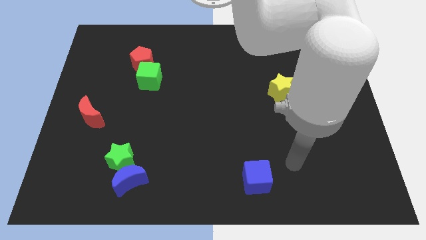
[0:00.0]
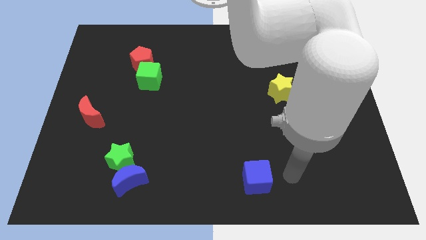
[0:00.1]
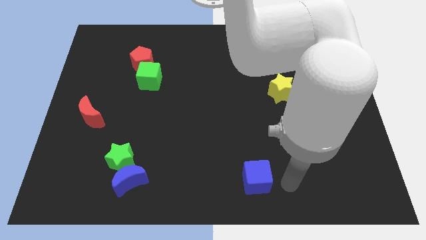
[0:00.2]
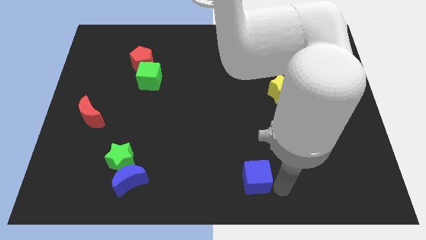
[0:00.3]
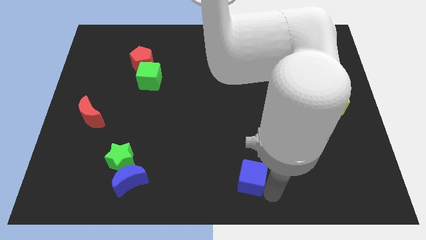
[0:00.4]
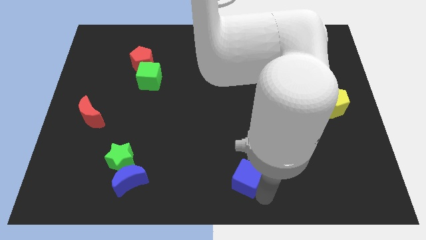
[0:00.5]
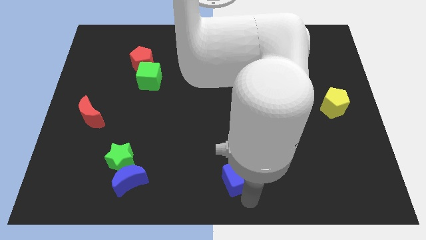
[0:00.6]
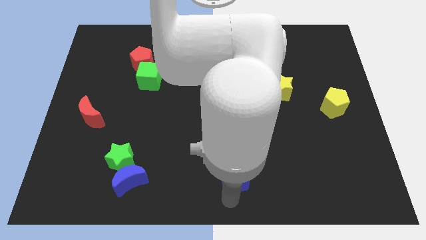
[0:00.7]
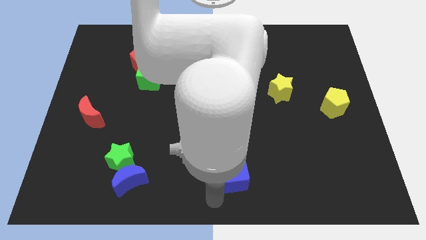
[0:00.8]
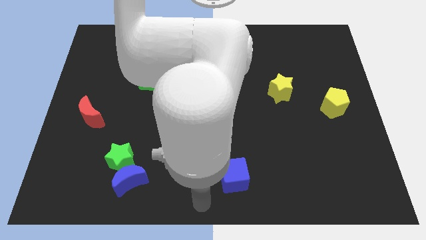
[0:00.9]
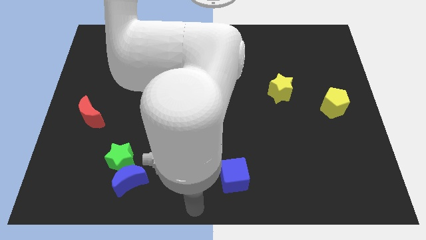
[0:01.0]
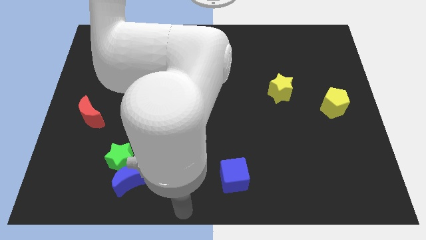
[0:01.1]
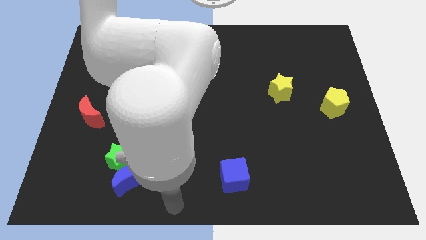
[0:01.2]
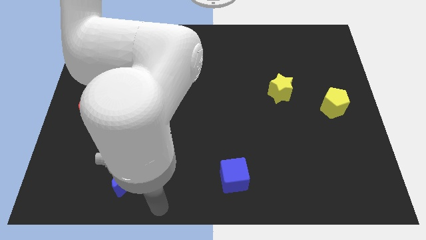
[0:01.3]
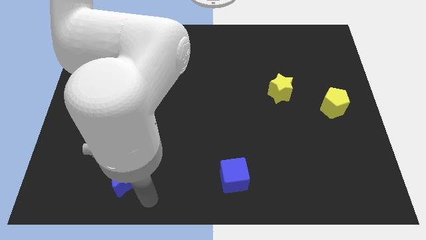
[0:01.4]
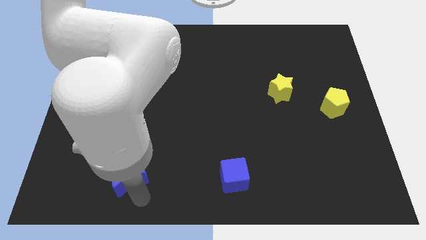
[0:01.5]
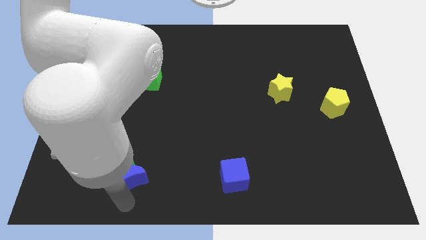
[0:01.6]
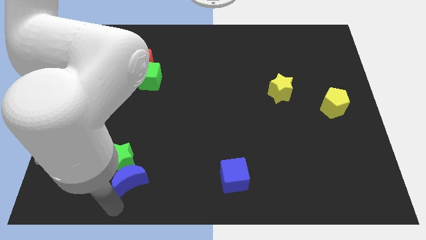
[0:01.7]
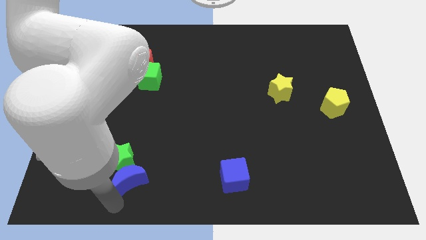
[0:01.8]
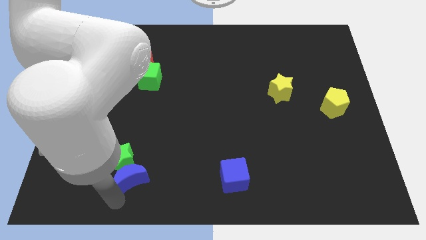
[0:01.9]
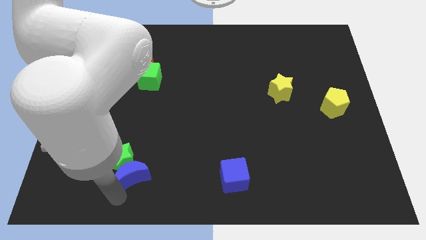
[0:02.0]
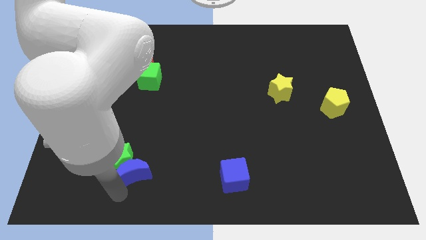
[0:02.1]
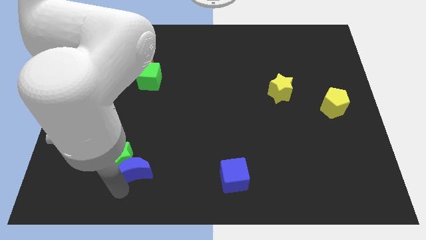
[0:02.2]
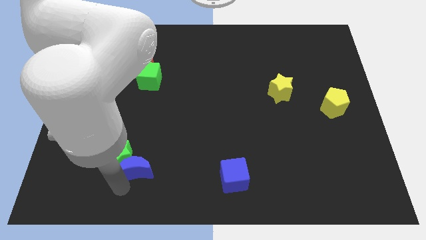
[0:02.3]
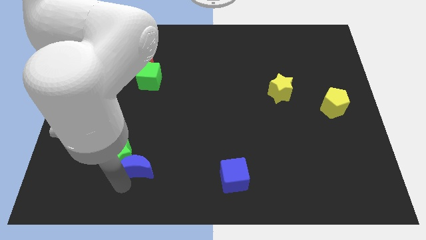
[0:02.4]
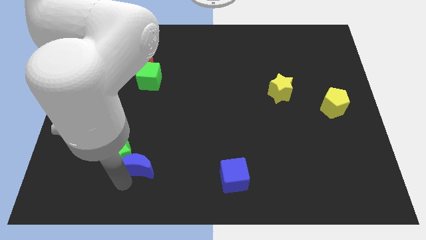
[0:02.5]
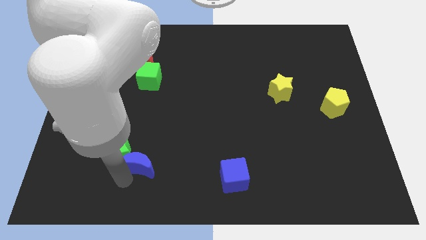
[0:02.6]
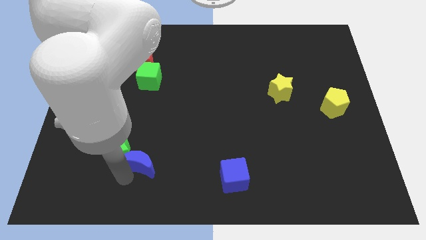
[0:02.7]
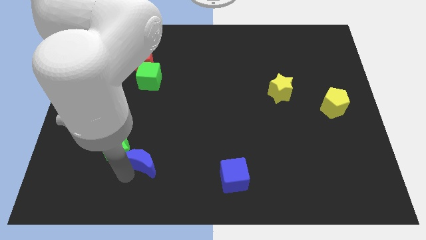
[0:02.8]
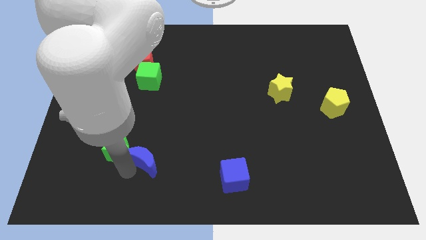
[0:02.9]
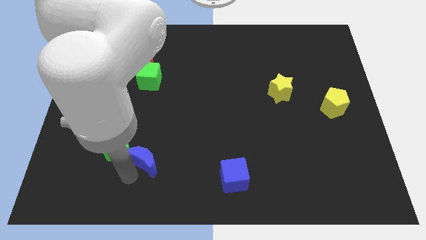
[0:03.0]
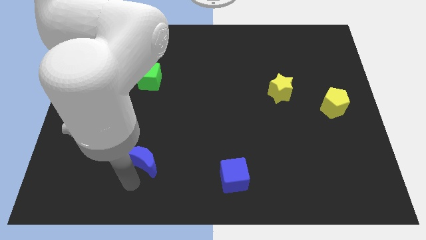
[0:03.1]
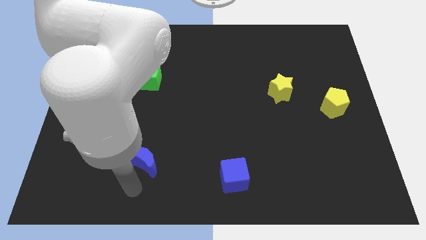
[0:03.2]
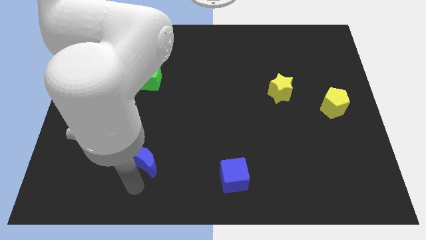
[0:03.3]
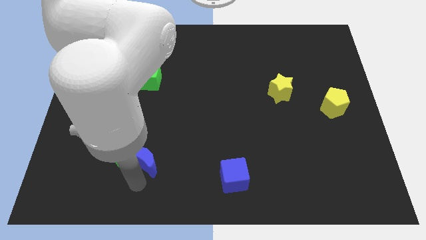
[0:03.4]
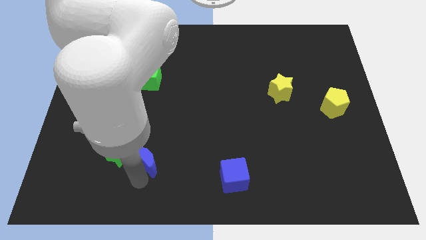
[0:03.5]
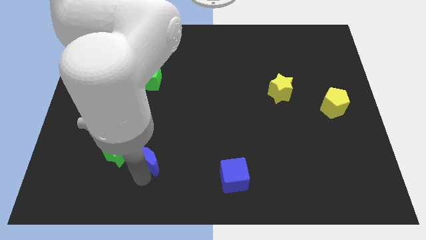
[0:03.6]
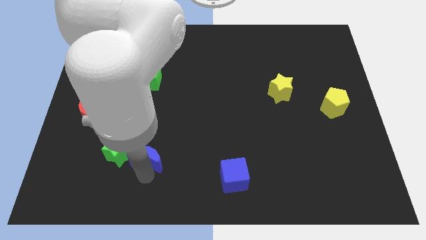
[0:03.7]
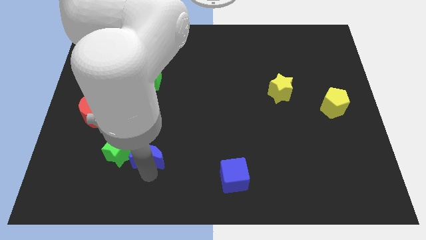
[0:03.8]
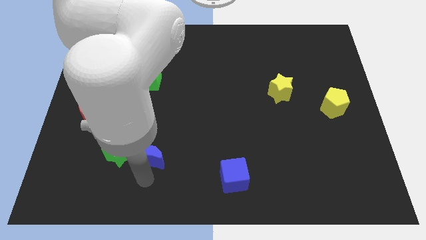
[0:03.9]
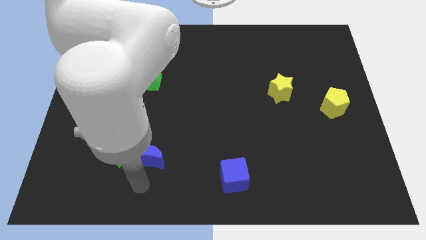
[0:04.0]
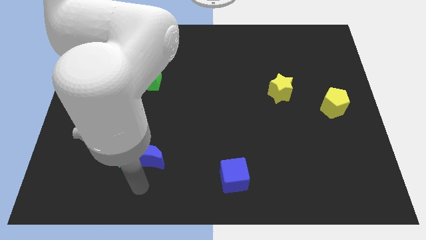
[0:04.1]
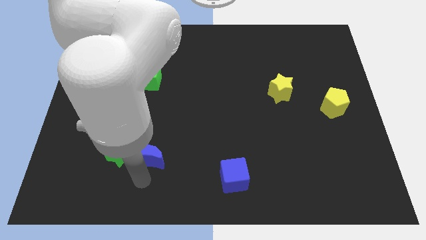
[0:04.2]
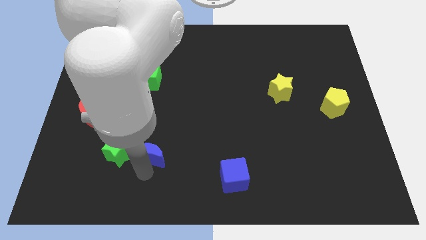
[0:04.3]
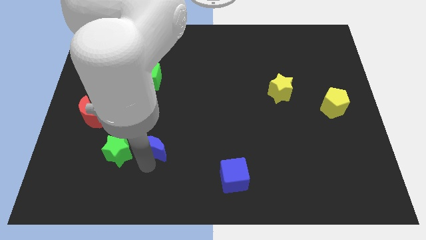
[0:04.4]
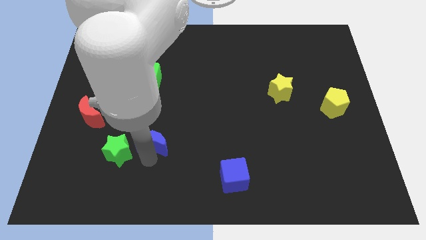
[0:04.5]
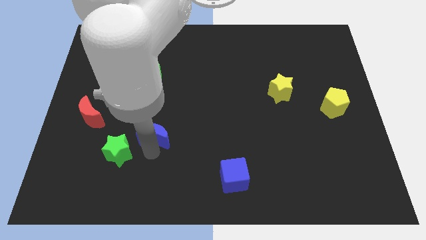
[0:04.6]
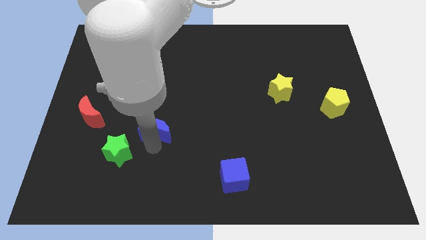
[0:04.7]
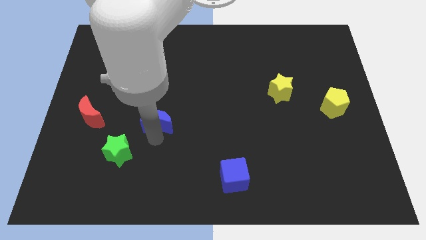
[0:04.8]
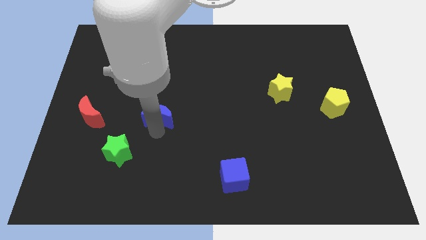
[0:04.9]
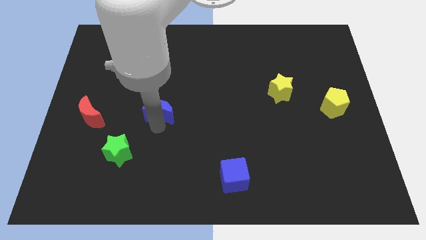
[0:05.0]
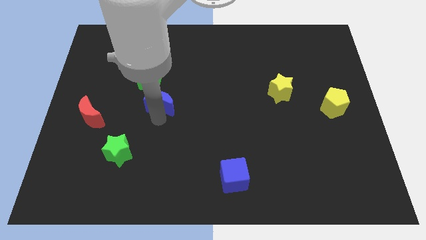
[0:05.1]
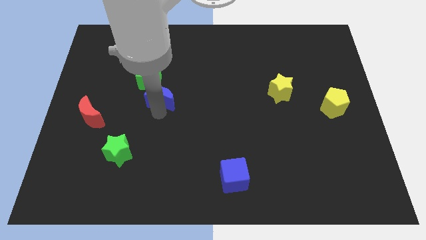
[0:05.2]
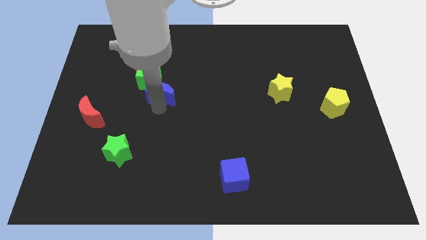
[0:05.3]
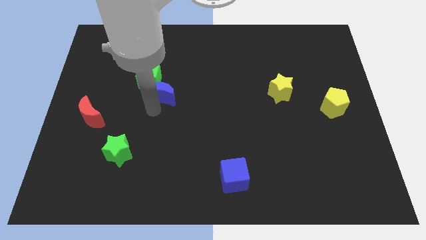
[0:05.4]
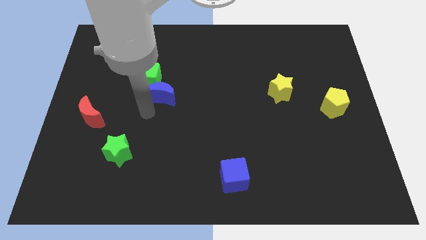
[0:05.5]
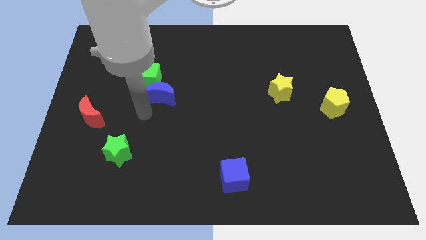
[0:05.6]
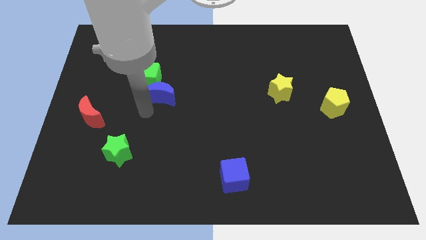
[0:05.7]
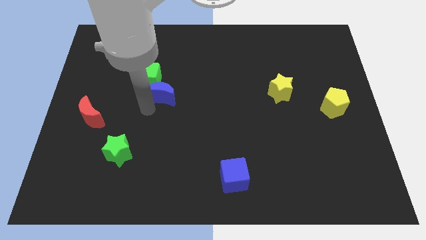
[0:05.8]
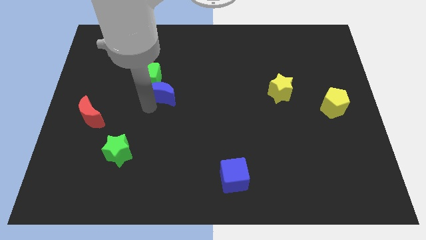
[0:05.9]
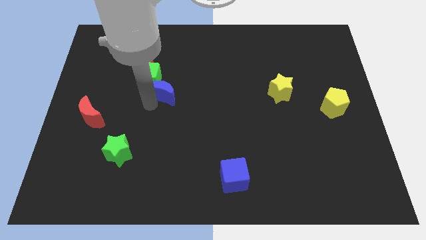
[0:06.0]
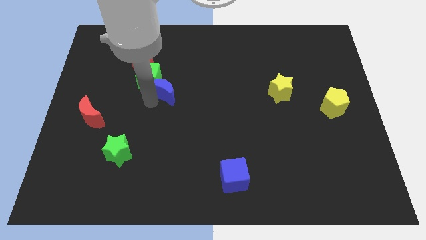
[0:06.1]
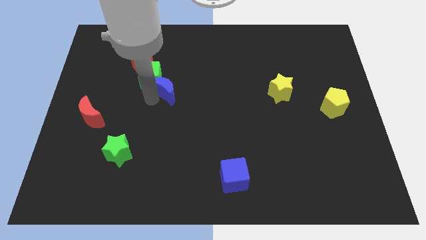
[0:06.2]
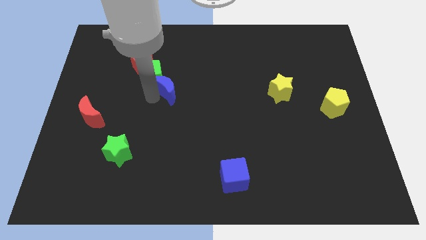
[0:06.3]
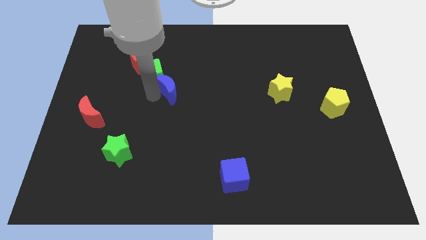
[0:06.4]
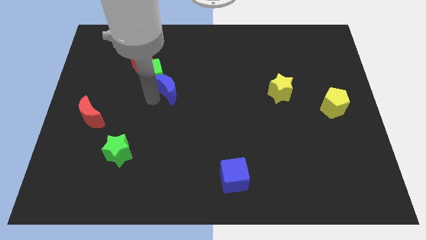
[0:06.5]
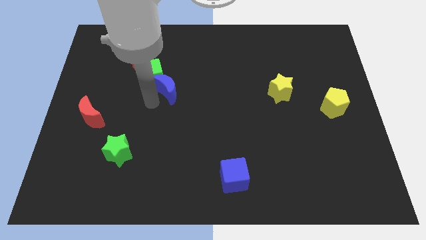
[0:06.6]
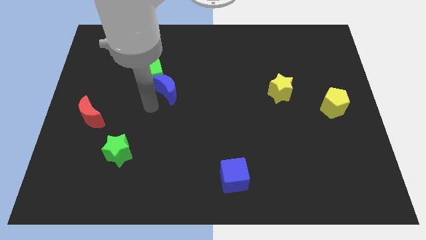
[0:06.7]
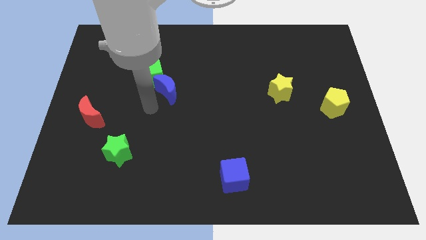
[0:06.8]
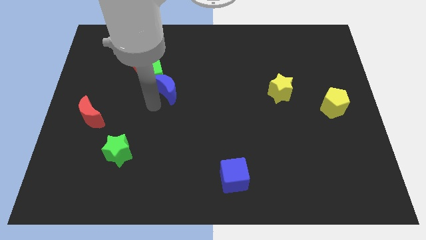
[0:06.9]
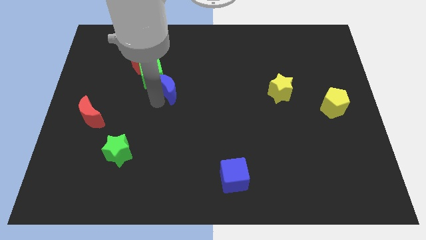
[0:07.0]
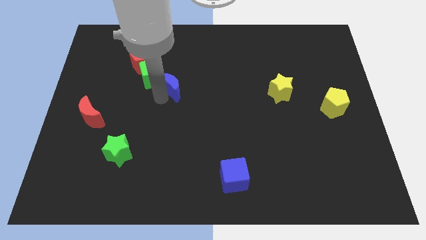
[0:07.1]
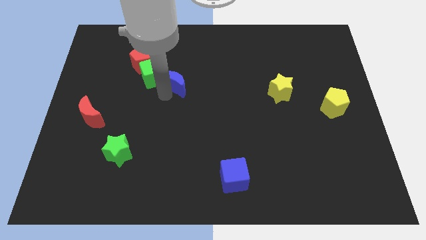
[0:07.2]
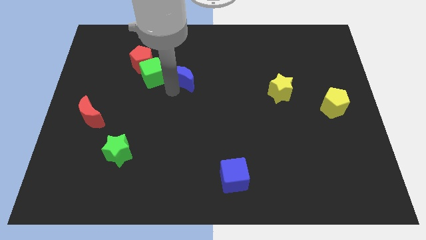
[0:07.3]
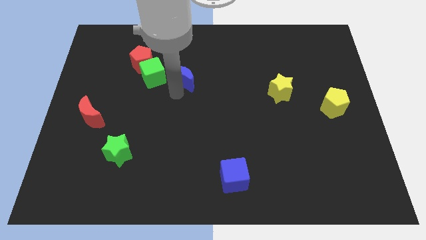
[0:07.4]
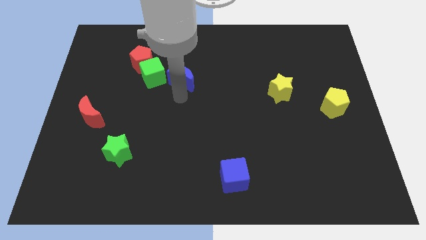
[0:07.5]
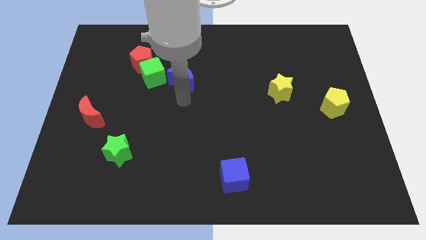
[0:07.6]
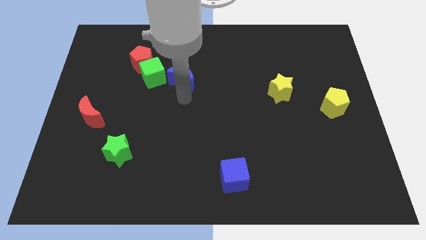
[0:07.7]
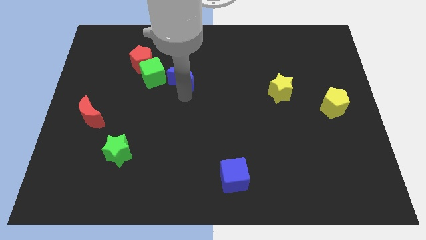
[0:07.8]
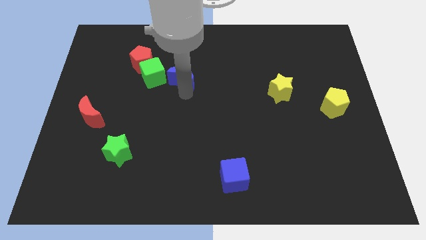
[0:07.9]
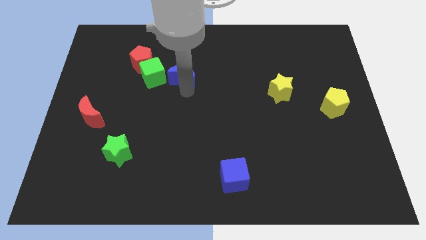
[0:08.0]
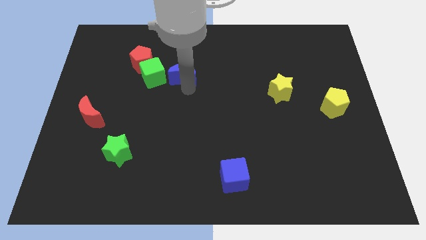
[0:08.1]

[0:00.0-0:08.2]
put the blue moon right of the red pentagon
